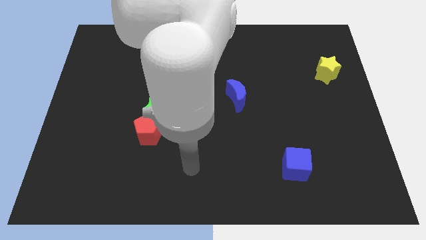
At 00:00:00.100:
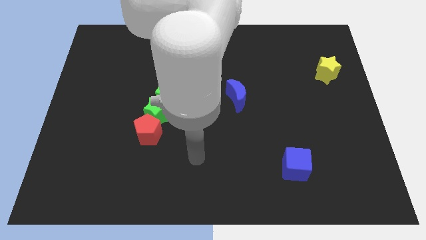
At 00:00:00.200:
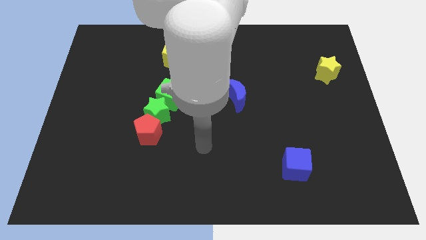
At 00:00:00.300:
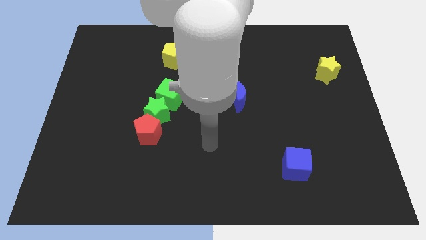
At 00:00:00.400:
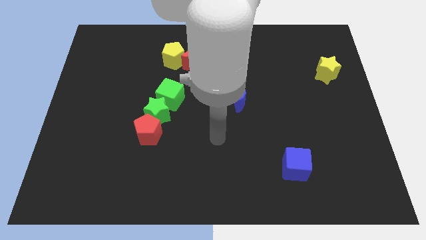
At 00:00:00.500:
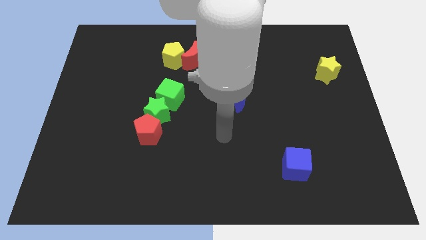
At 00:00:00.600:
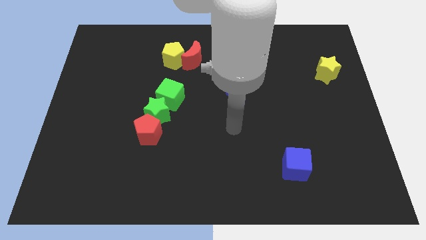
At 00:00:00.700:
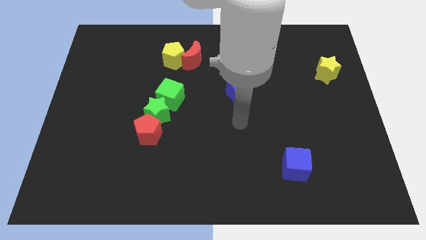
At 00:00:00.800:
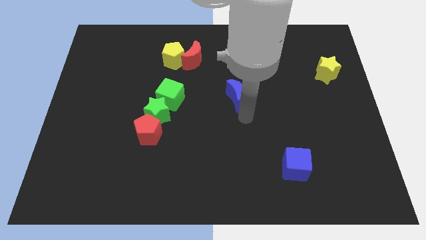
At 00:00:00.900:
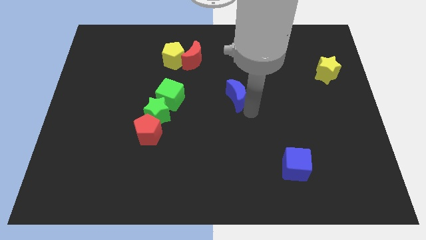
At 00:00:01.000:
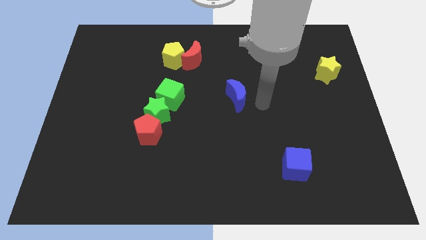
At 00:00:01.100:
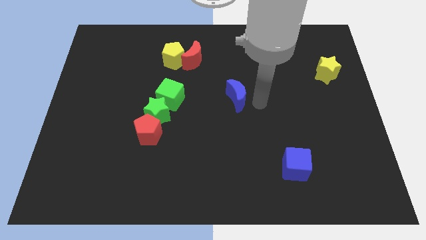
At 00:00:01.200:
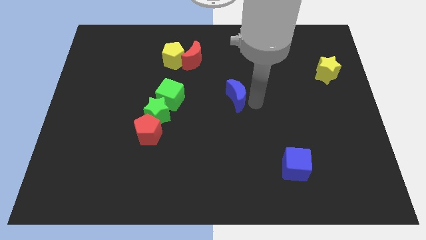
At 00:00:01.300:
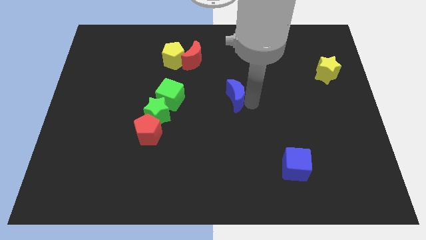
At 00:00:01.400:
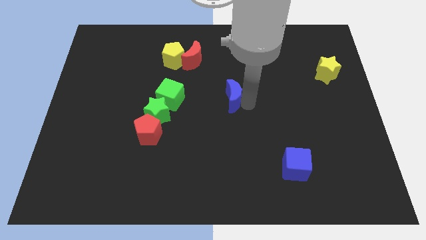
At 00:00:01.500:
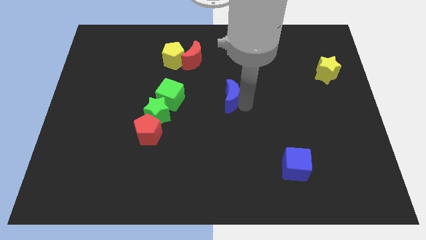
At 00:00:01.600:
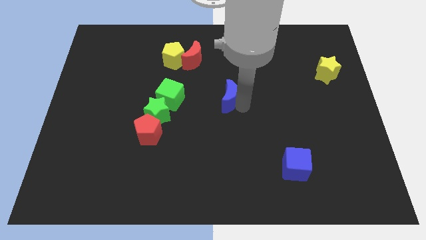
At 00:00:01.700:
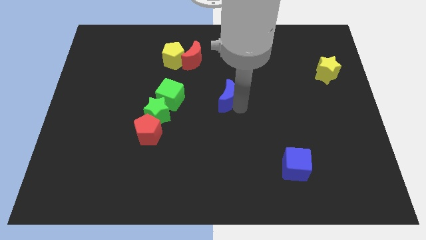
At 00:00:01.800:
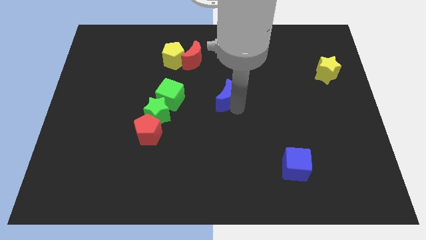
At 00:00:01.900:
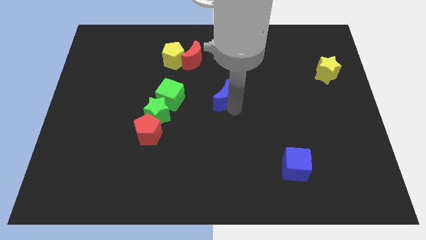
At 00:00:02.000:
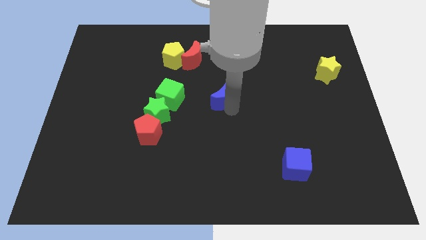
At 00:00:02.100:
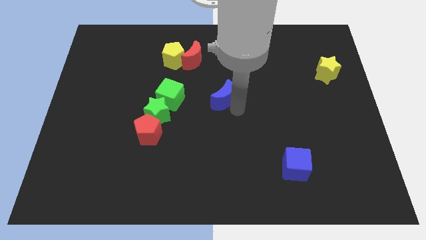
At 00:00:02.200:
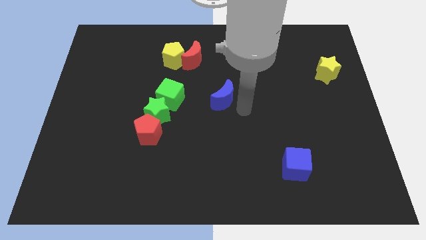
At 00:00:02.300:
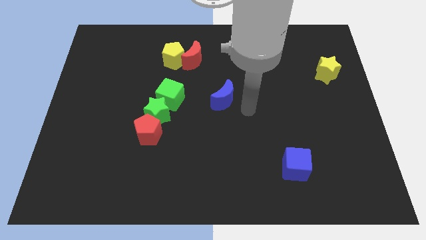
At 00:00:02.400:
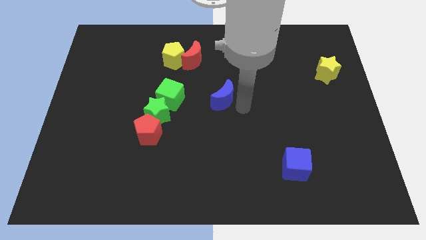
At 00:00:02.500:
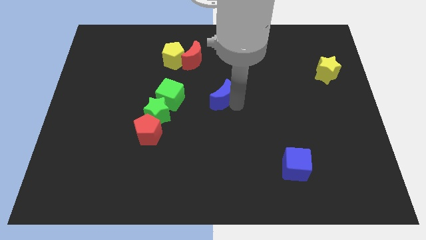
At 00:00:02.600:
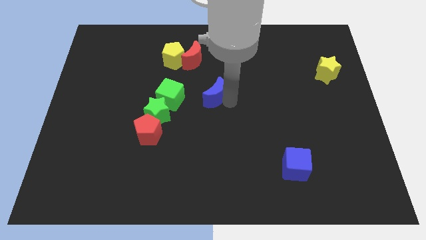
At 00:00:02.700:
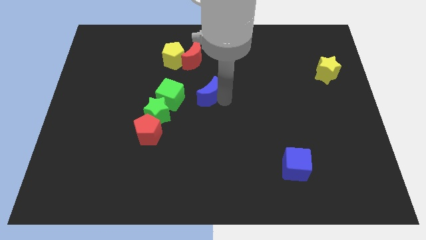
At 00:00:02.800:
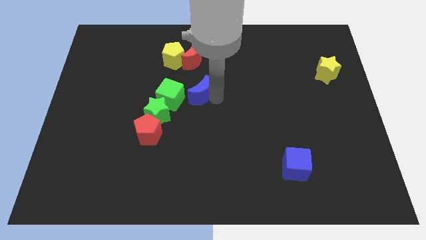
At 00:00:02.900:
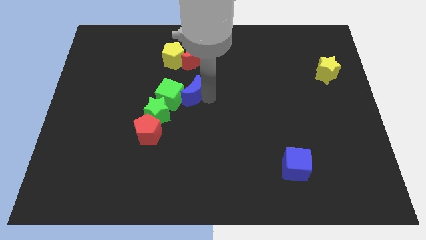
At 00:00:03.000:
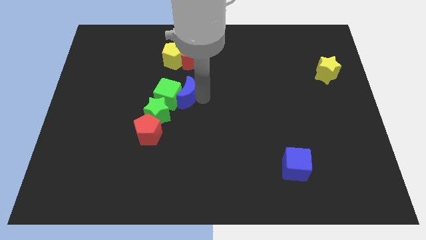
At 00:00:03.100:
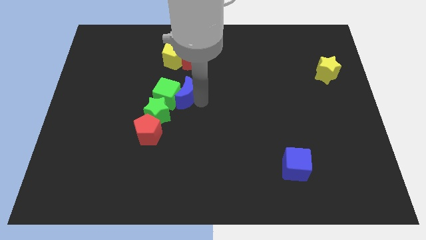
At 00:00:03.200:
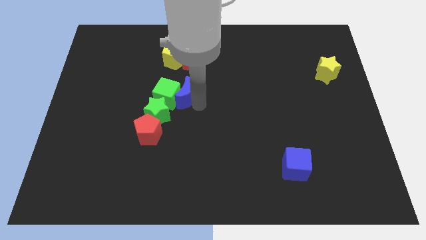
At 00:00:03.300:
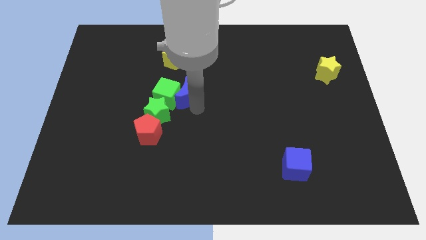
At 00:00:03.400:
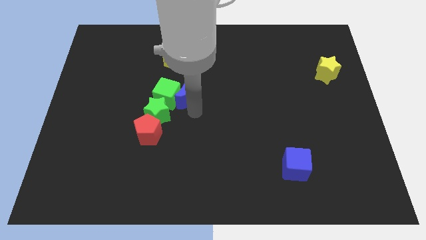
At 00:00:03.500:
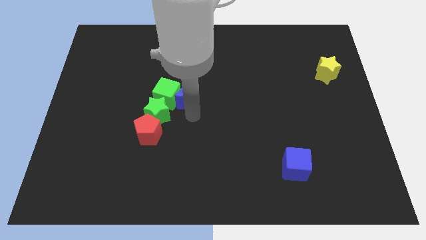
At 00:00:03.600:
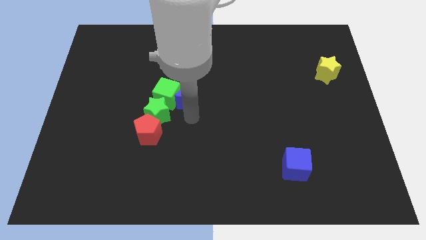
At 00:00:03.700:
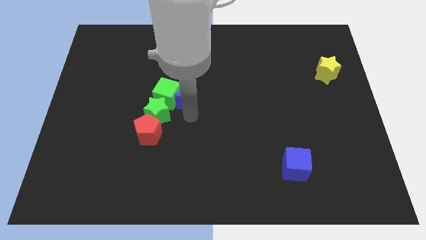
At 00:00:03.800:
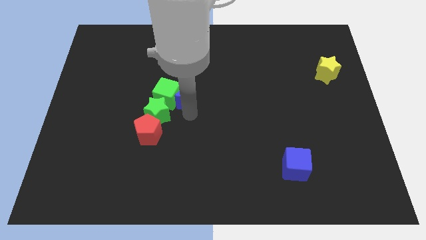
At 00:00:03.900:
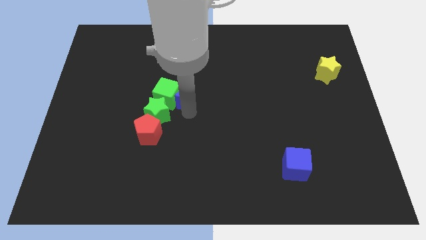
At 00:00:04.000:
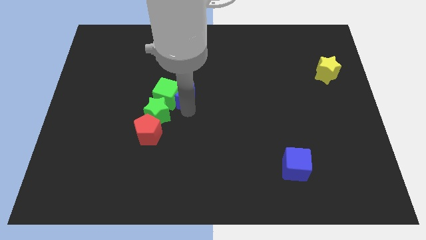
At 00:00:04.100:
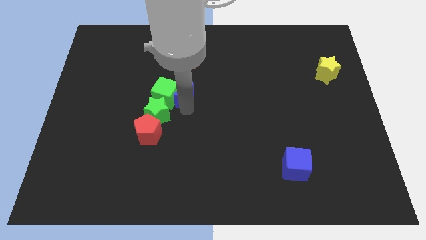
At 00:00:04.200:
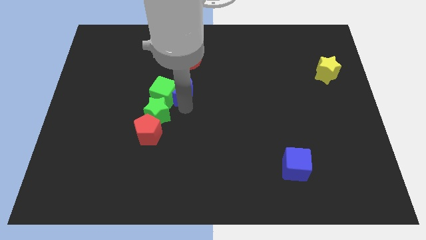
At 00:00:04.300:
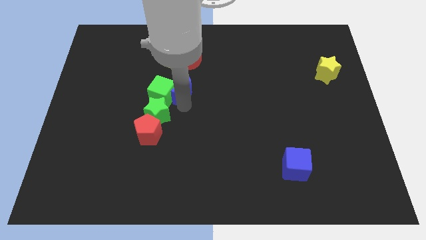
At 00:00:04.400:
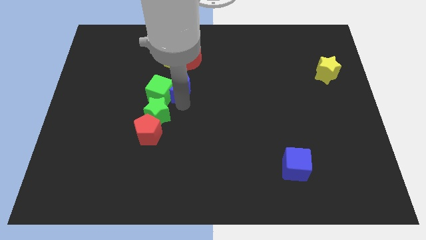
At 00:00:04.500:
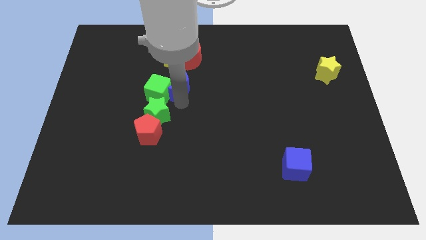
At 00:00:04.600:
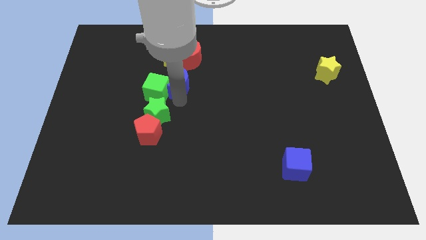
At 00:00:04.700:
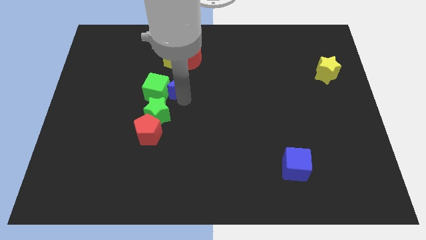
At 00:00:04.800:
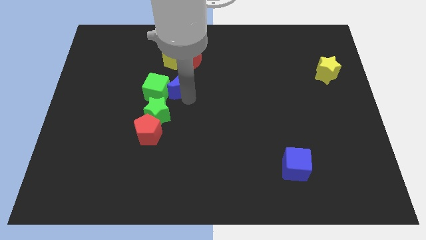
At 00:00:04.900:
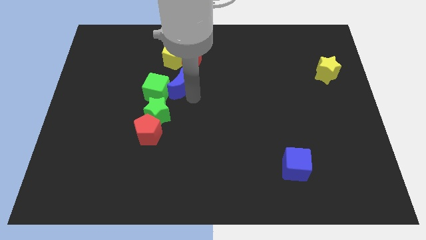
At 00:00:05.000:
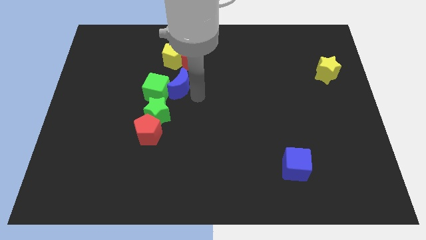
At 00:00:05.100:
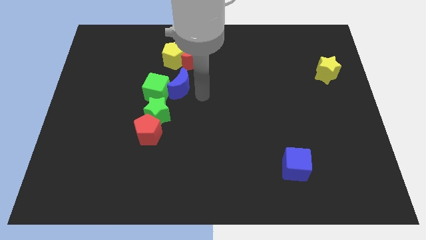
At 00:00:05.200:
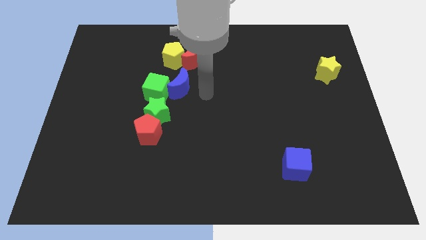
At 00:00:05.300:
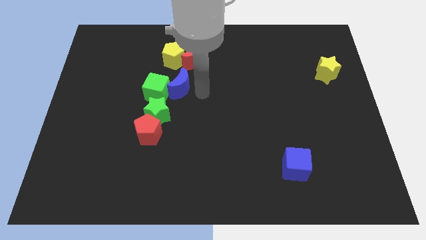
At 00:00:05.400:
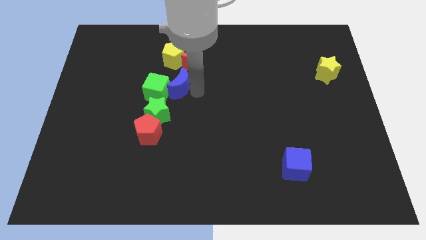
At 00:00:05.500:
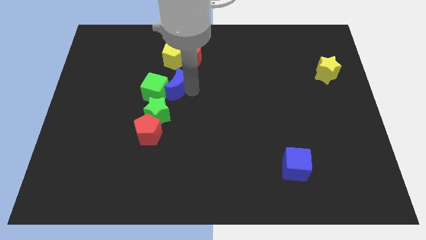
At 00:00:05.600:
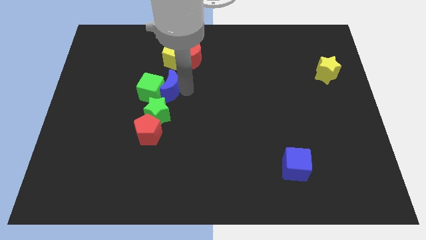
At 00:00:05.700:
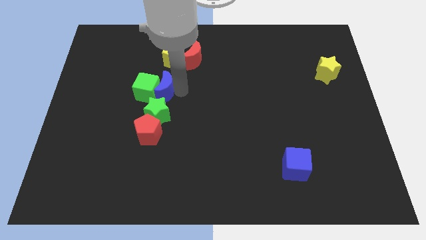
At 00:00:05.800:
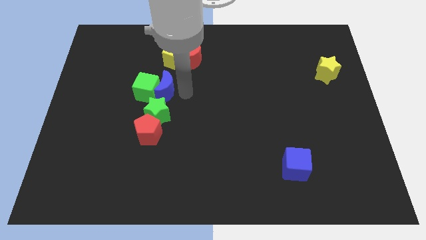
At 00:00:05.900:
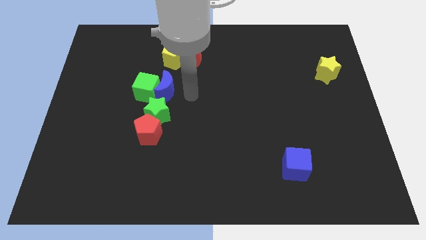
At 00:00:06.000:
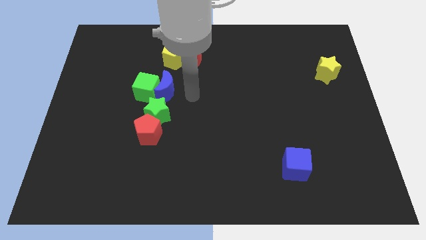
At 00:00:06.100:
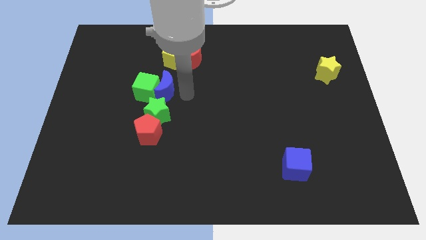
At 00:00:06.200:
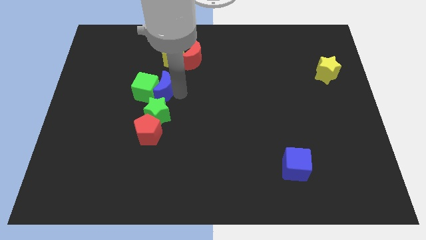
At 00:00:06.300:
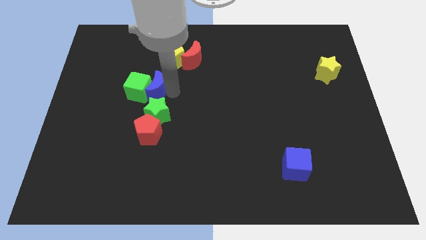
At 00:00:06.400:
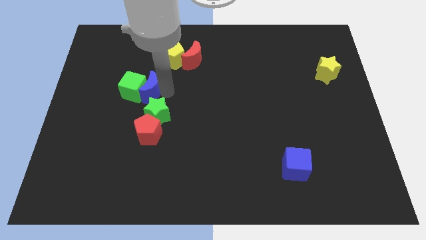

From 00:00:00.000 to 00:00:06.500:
push the blue moon left

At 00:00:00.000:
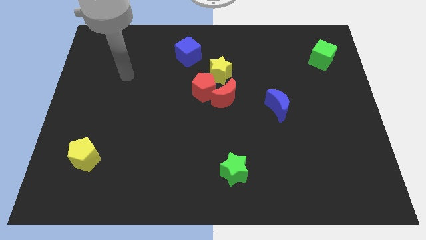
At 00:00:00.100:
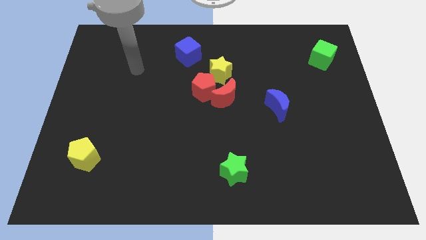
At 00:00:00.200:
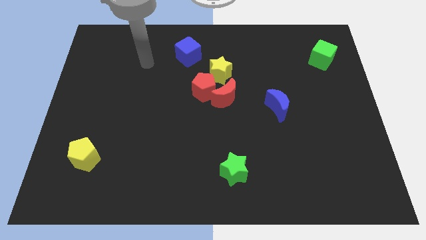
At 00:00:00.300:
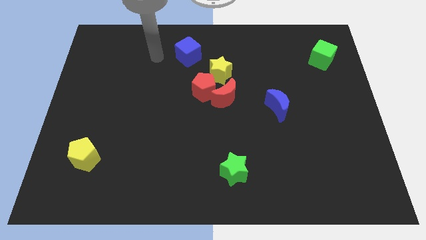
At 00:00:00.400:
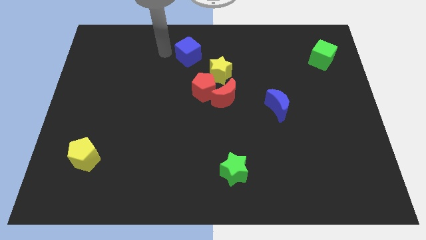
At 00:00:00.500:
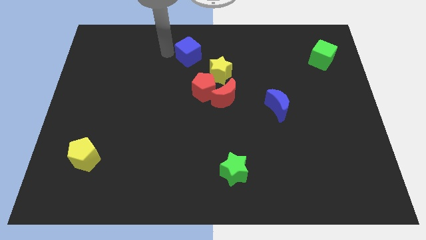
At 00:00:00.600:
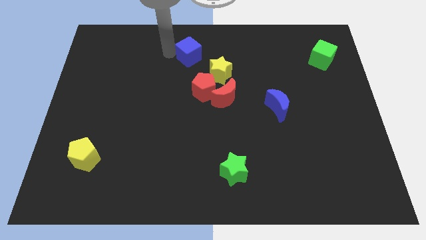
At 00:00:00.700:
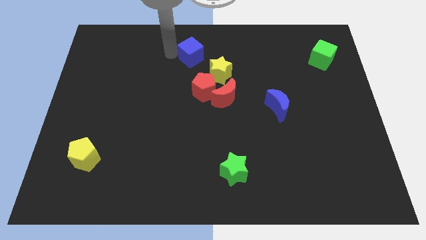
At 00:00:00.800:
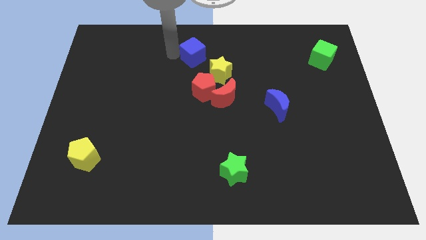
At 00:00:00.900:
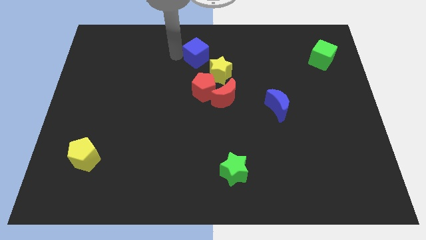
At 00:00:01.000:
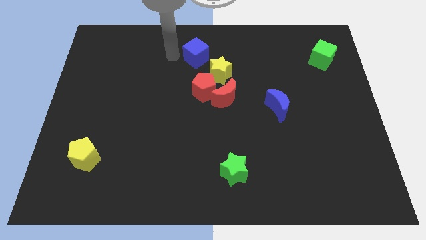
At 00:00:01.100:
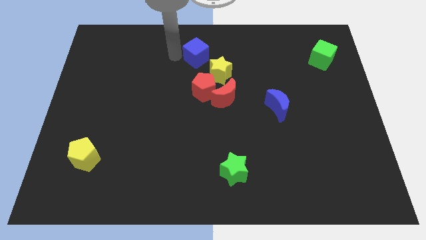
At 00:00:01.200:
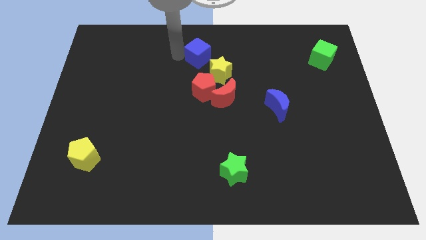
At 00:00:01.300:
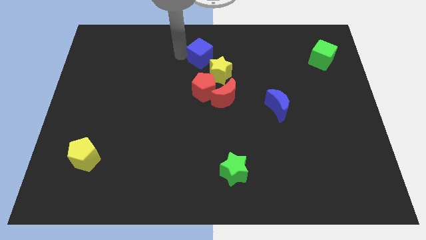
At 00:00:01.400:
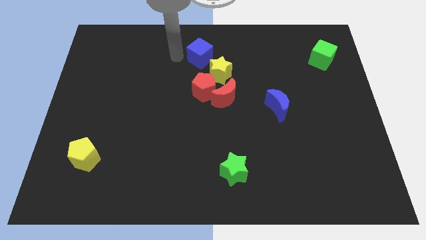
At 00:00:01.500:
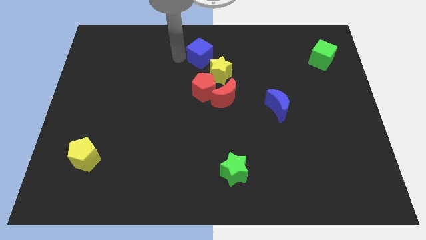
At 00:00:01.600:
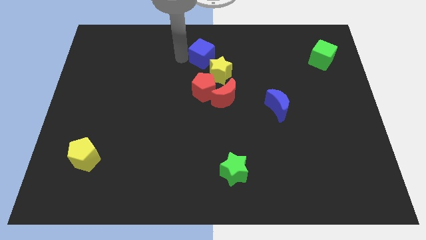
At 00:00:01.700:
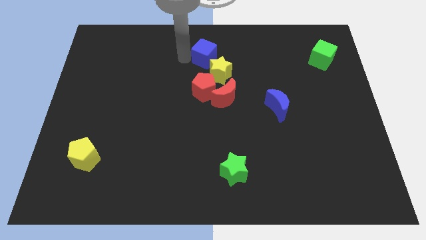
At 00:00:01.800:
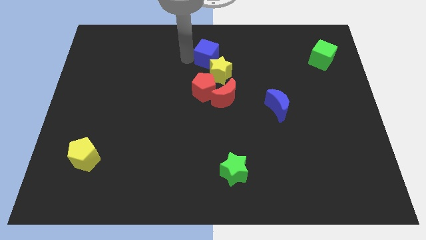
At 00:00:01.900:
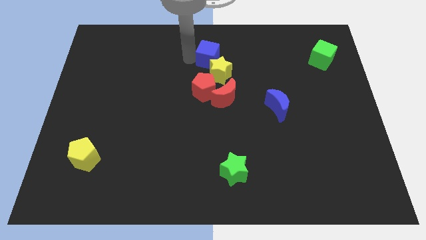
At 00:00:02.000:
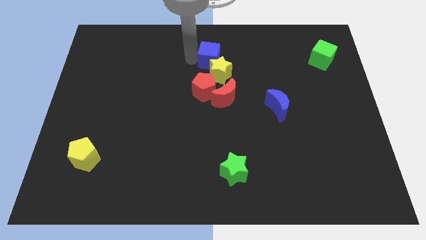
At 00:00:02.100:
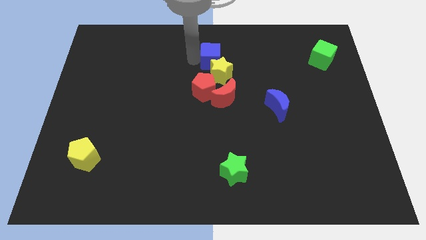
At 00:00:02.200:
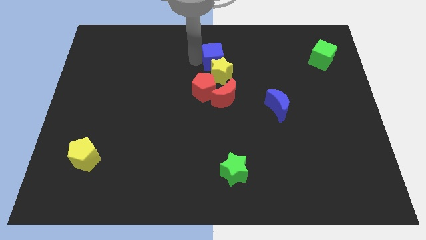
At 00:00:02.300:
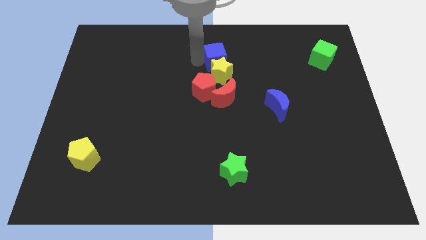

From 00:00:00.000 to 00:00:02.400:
push the blue cube slightly to the right
